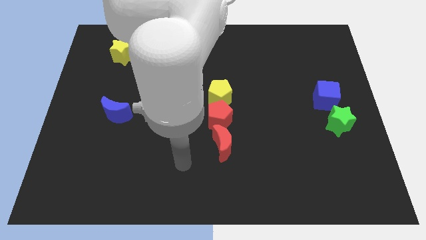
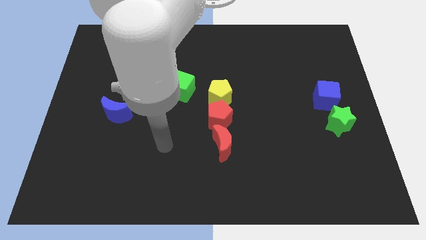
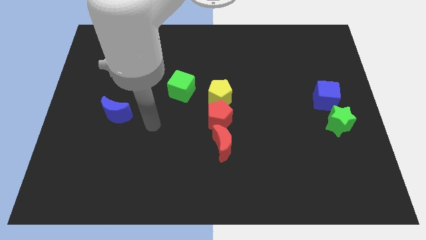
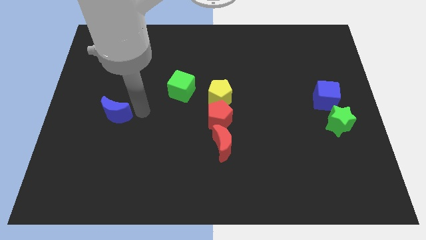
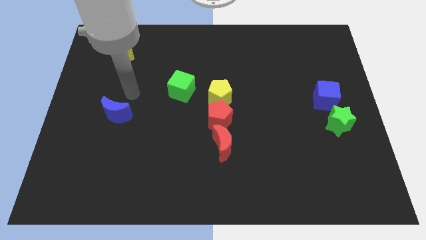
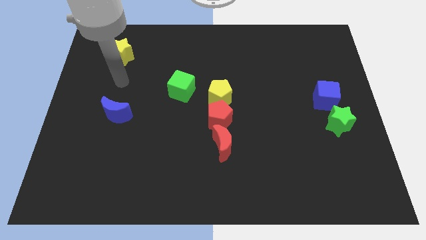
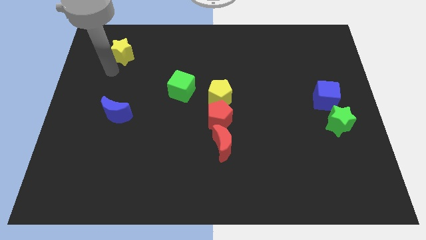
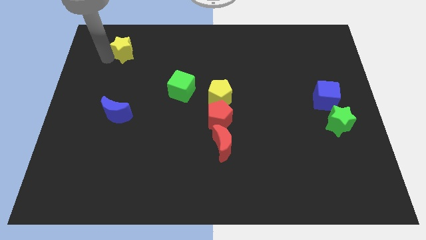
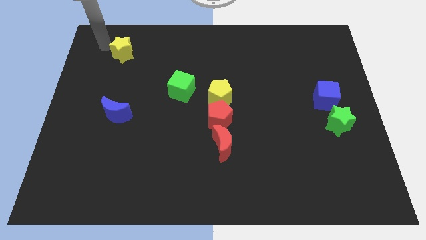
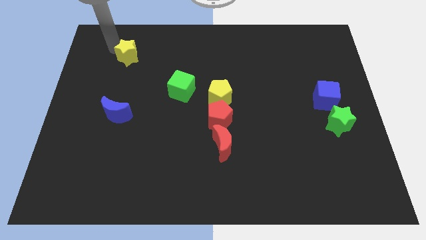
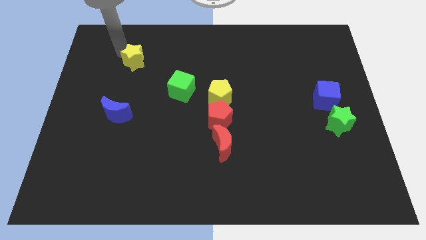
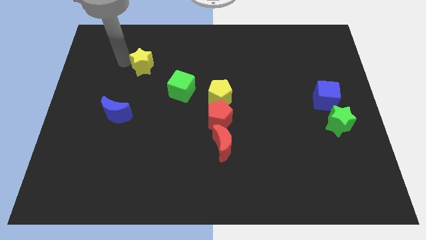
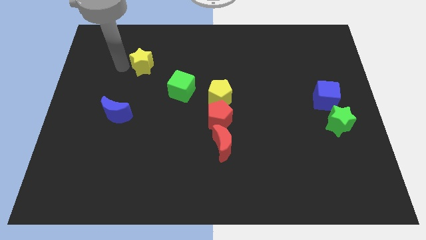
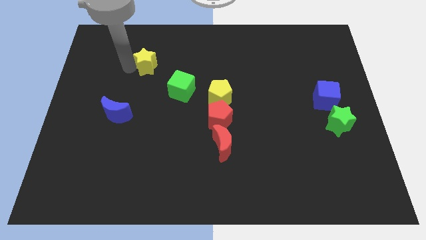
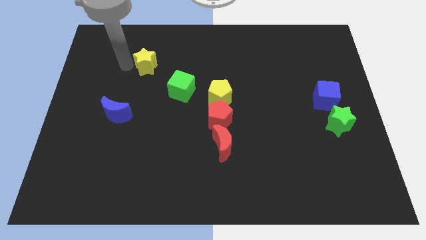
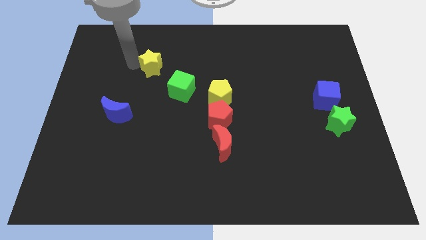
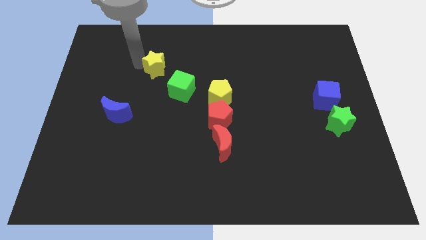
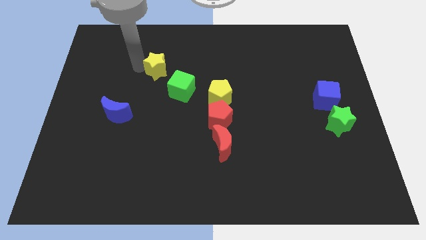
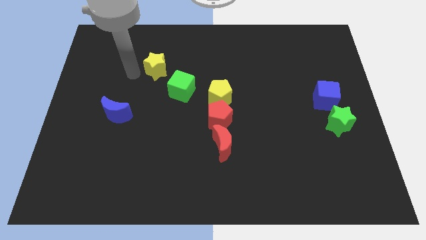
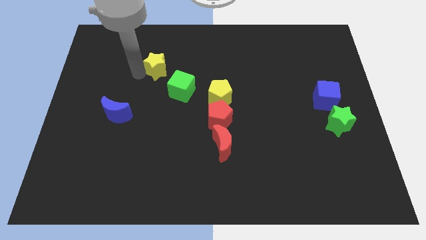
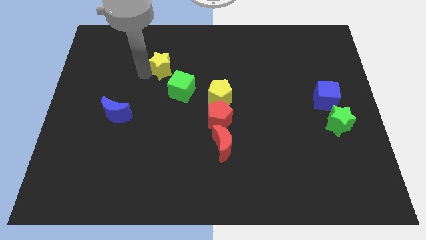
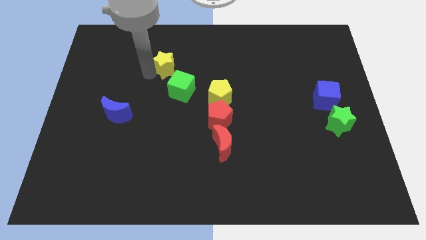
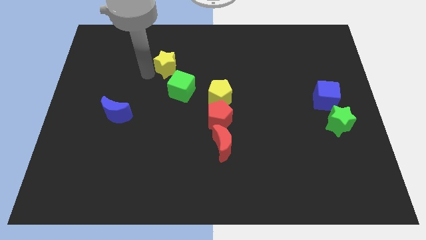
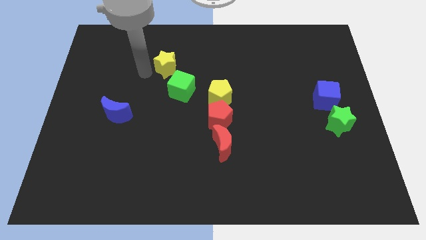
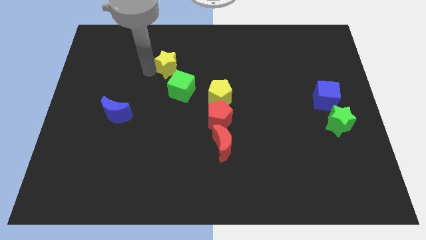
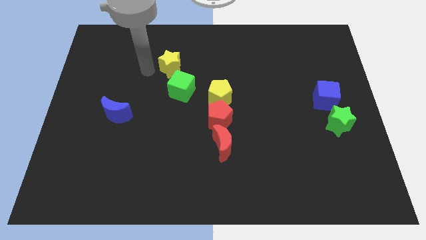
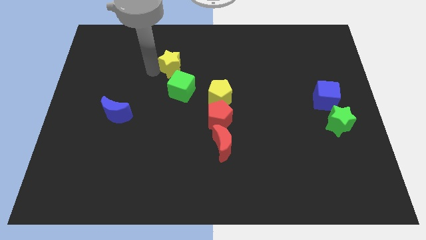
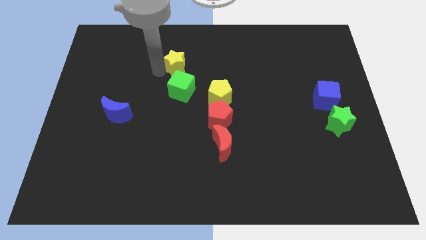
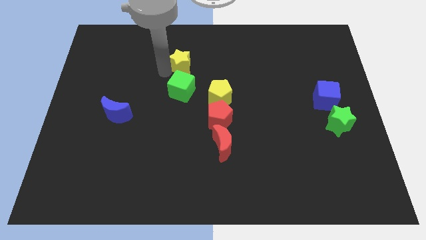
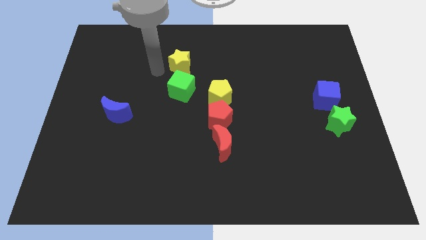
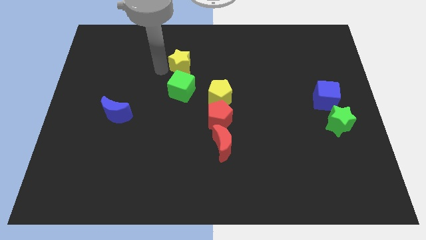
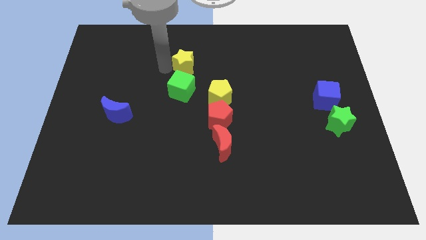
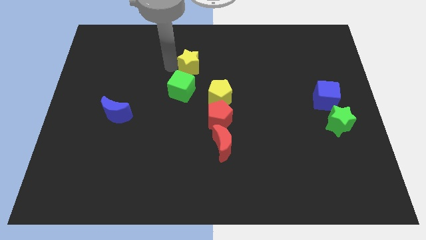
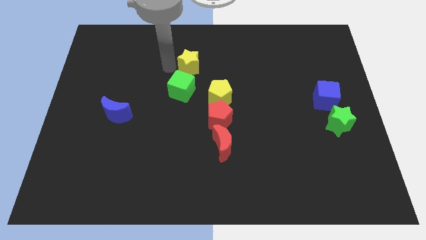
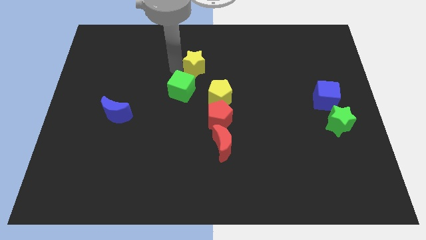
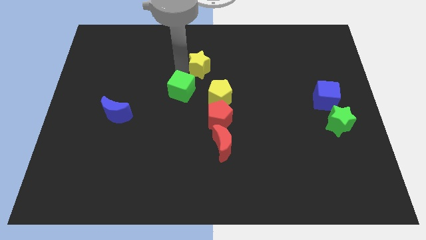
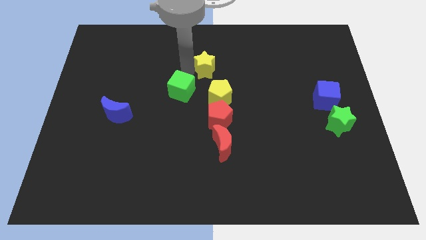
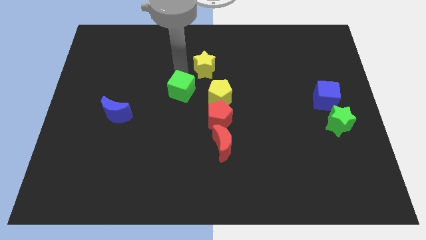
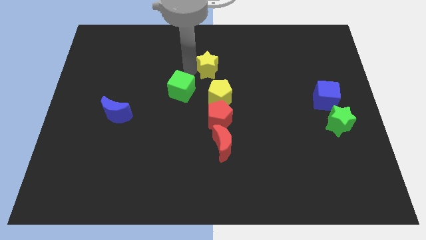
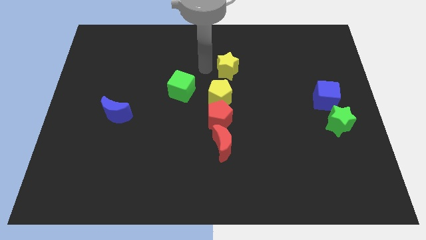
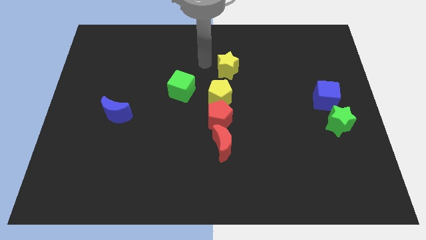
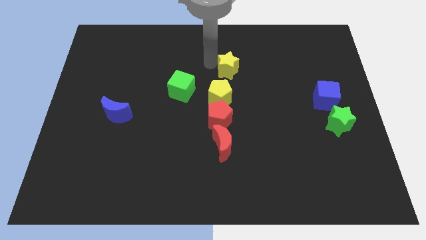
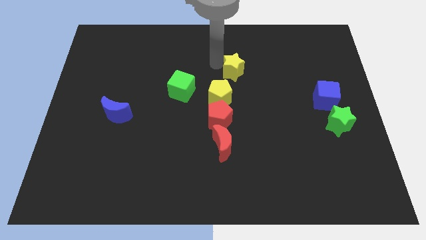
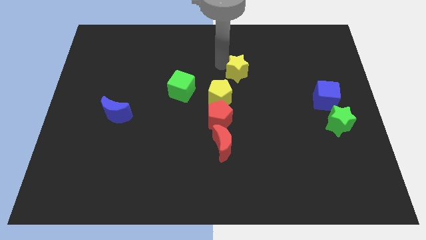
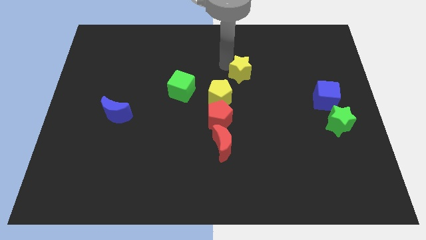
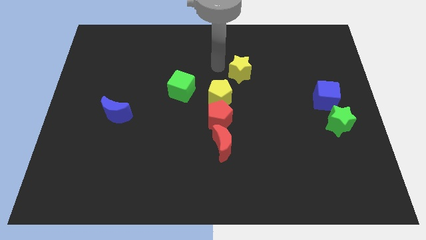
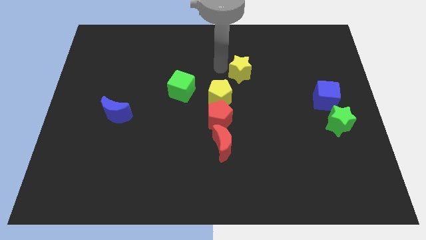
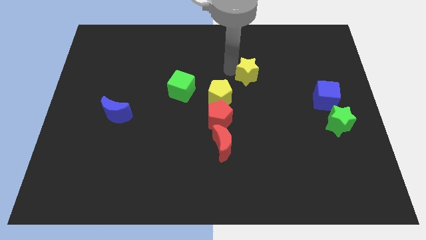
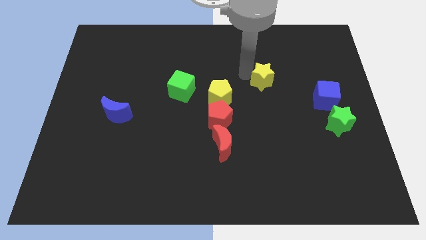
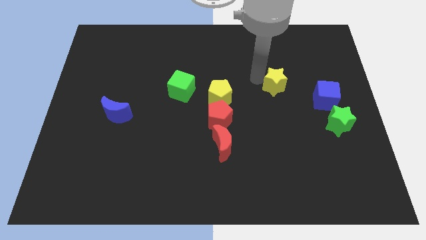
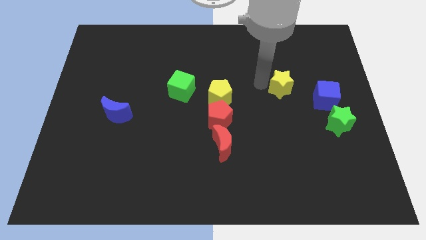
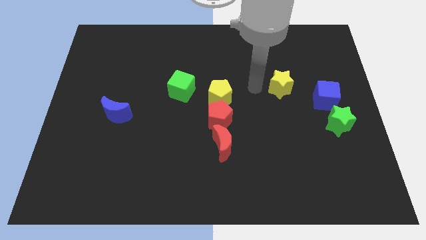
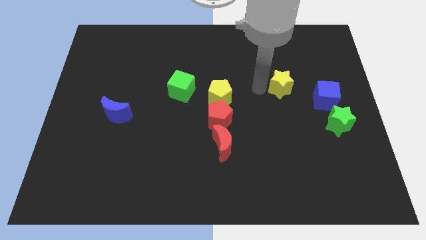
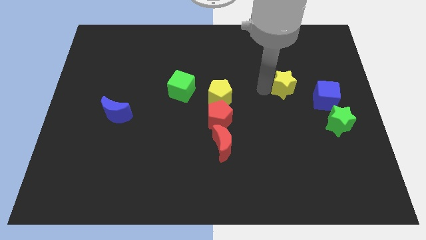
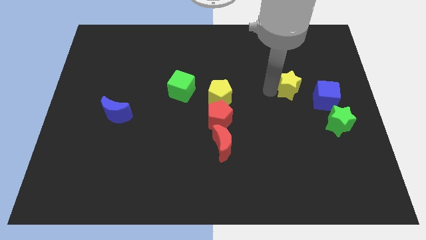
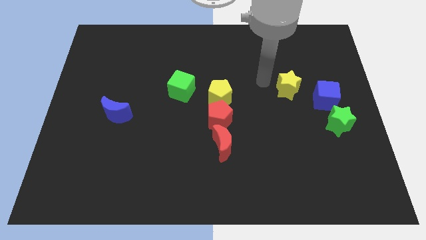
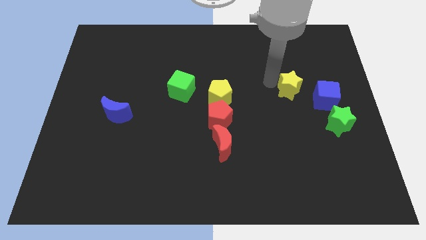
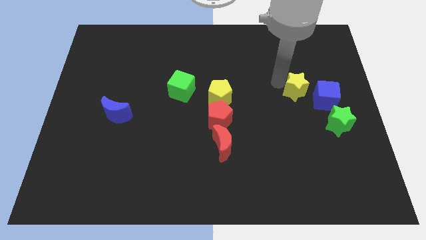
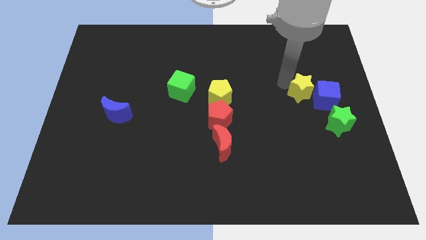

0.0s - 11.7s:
push the yellow star close to the blue cube
